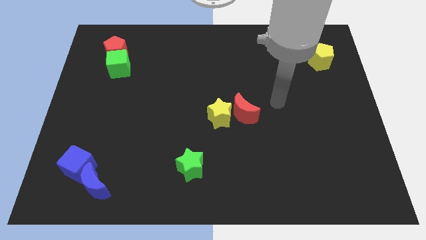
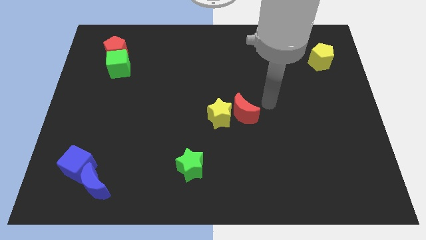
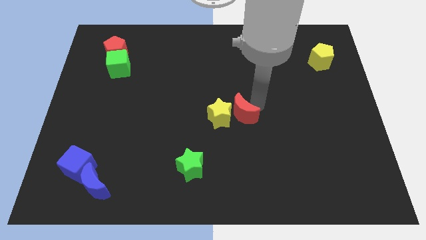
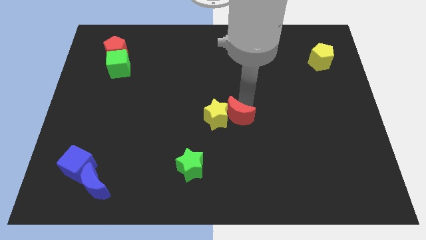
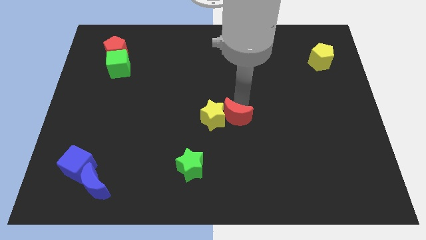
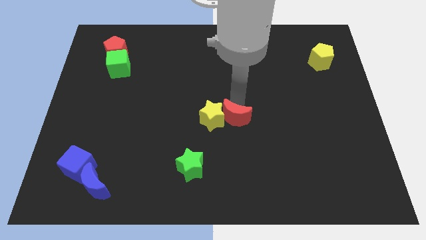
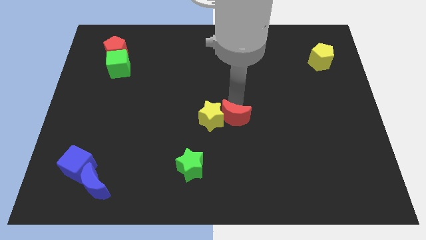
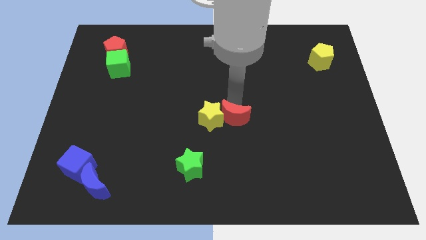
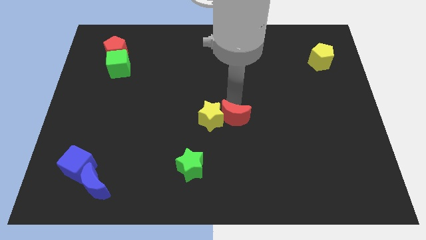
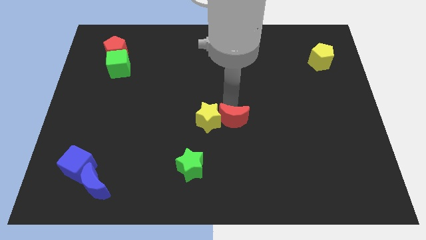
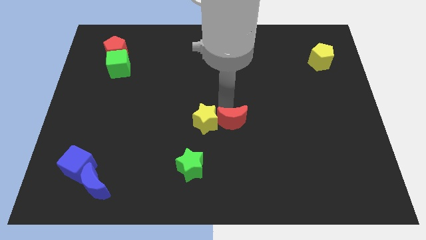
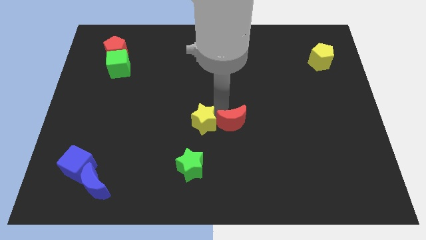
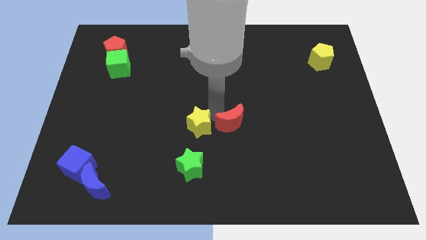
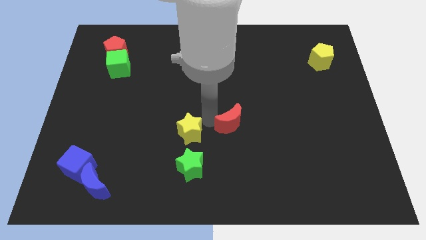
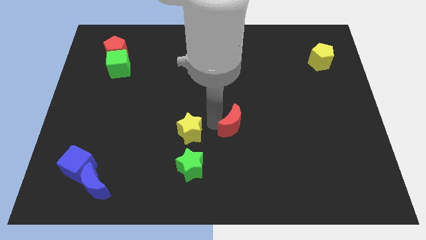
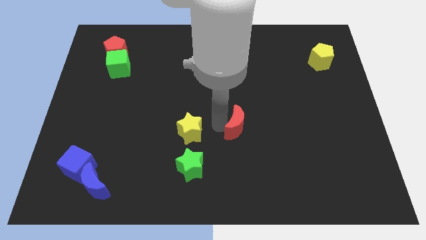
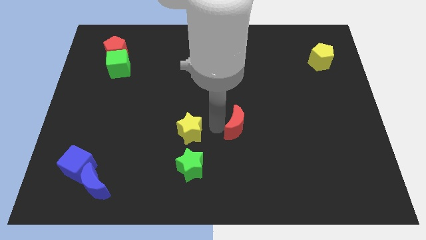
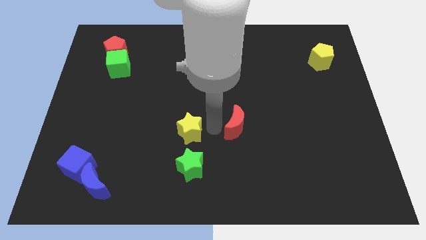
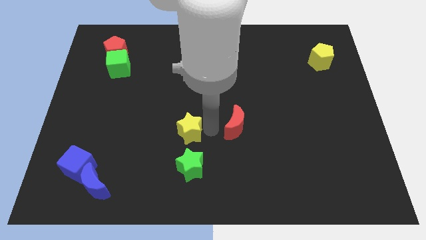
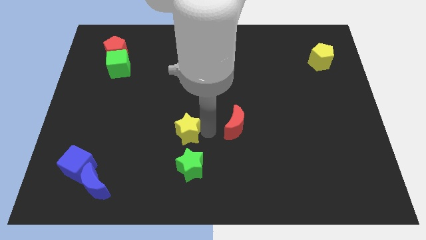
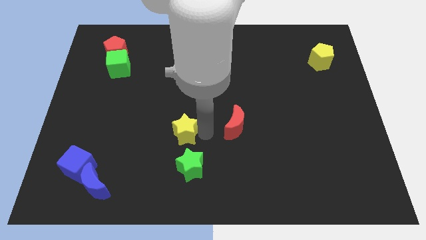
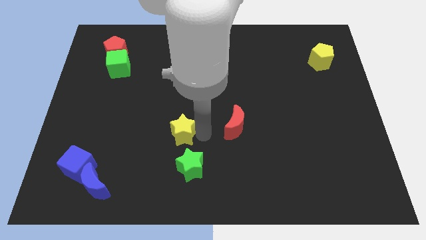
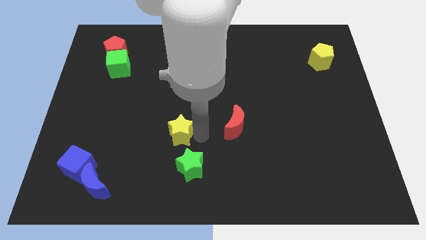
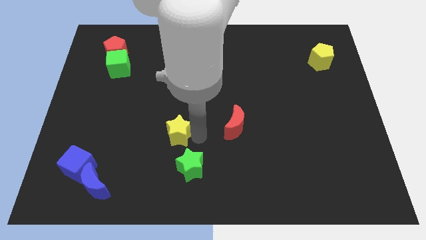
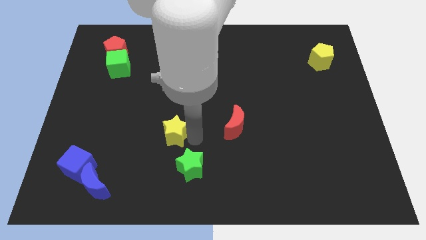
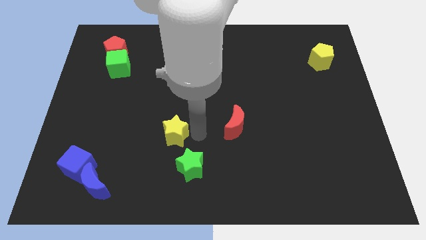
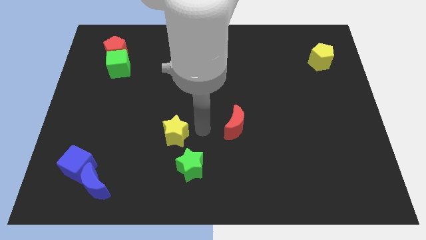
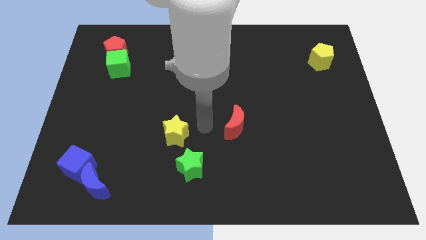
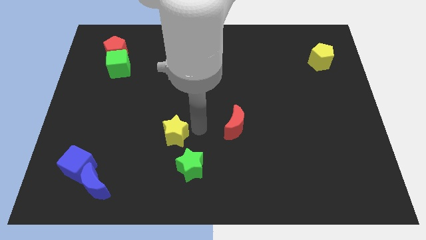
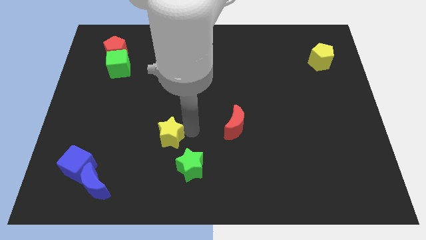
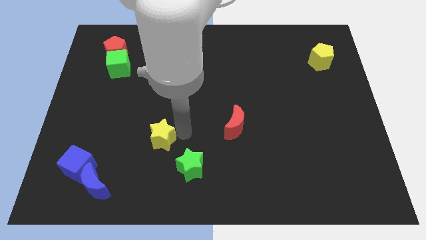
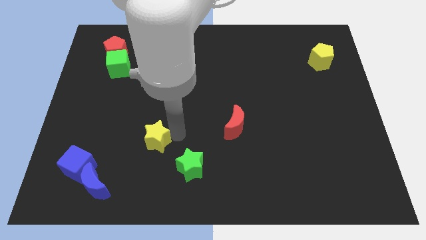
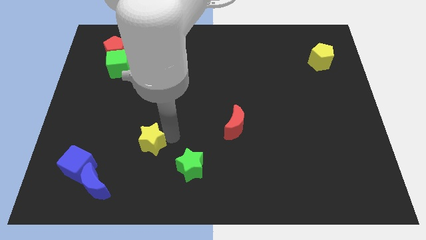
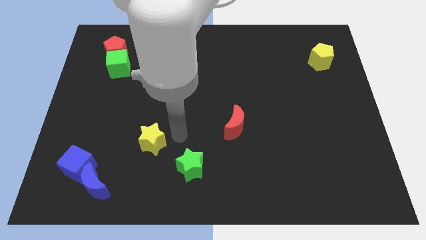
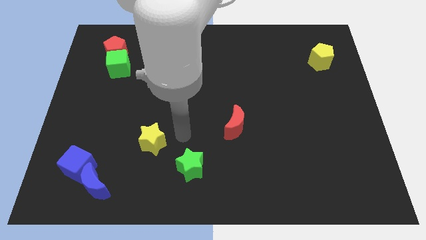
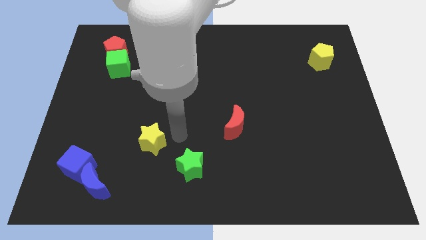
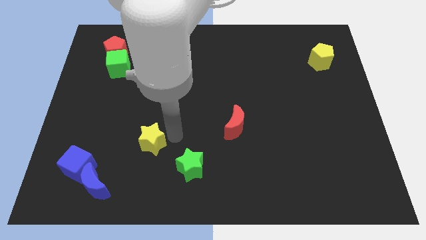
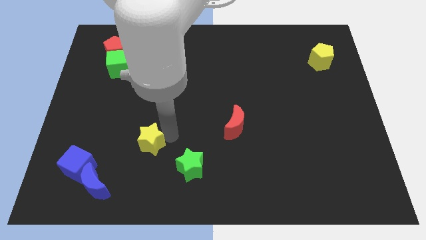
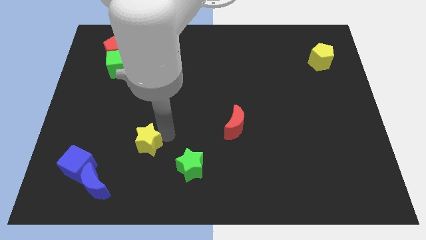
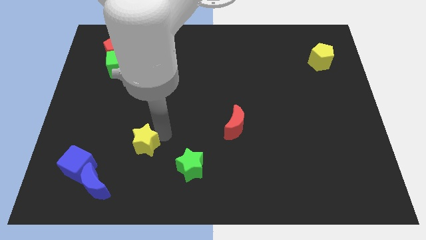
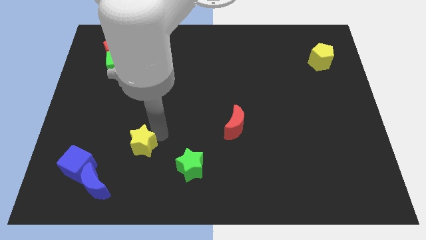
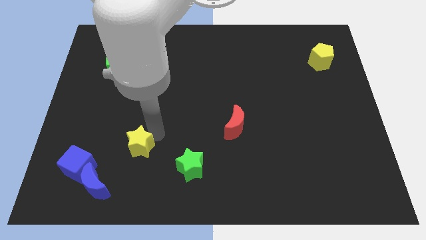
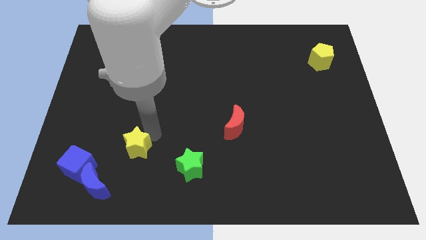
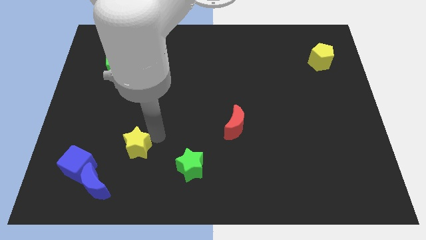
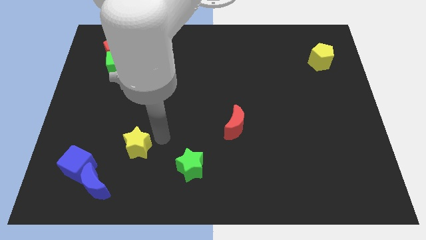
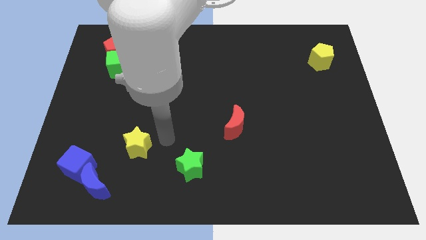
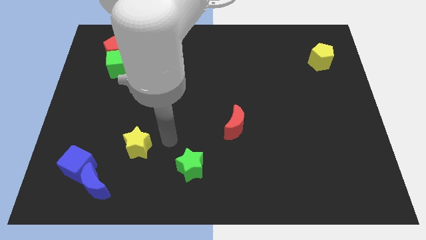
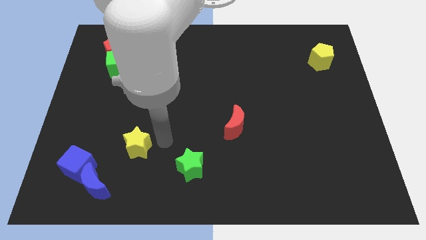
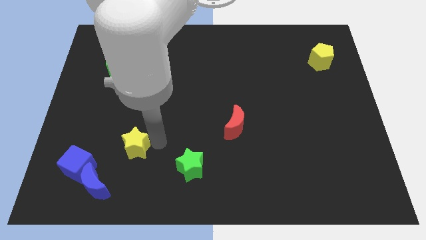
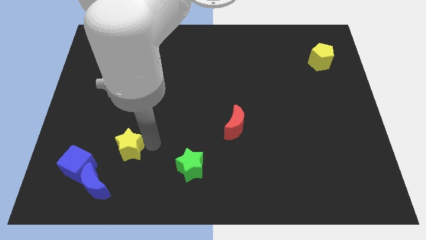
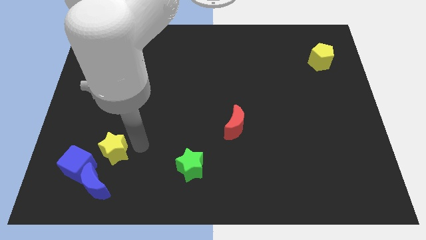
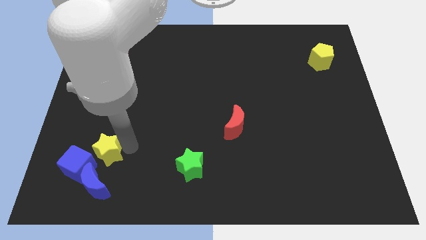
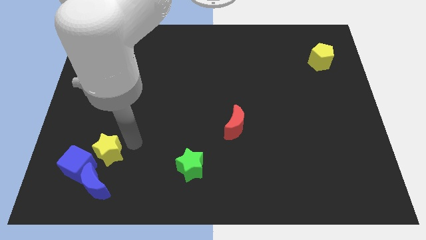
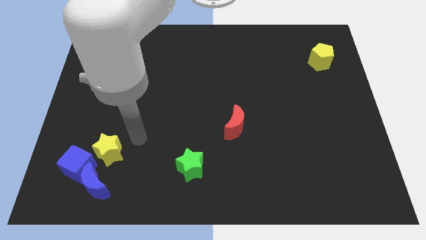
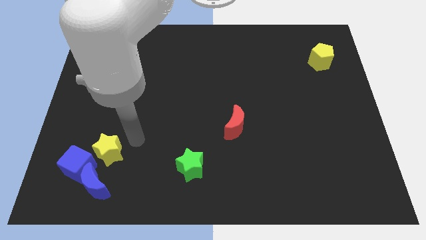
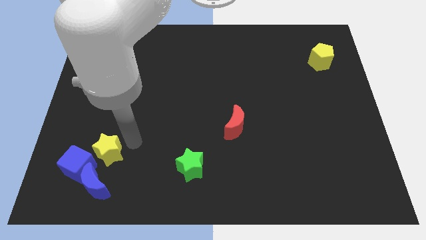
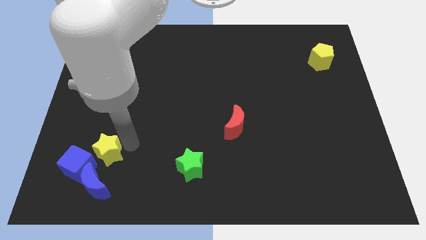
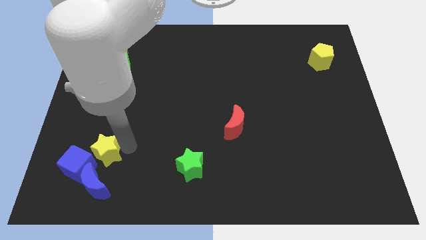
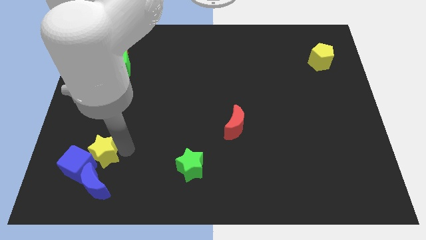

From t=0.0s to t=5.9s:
move the yellow star next to the blue cube

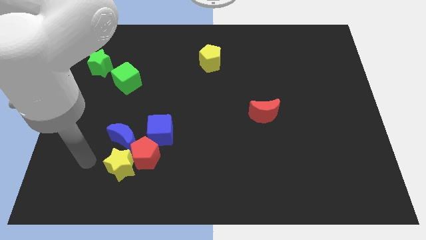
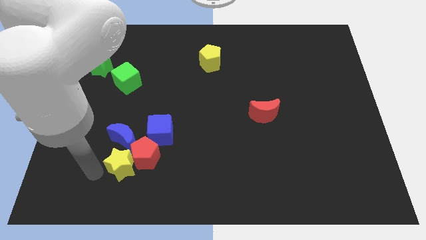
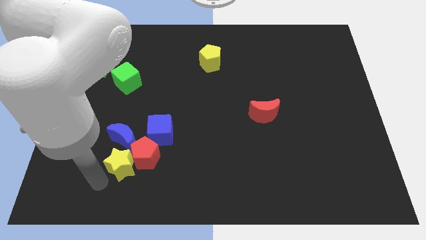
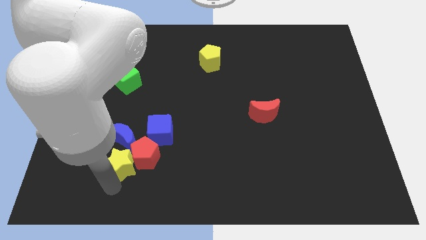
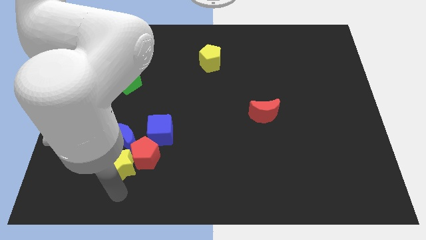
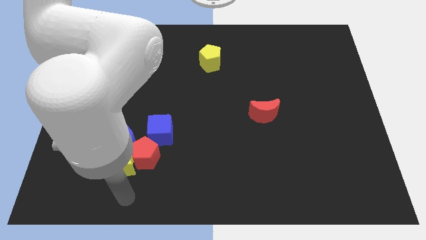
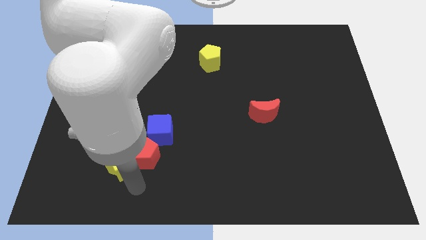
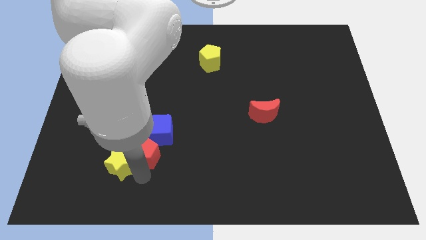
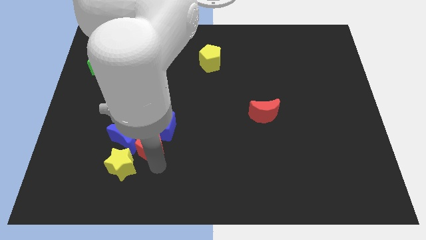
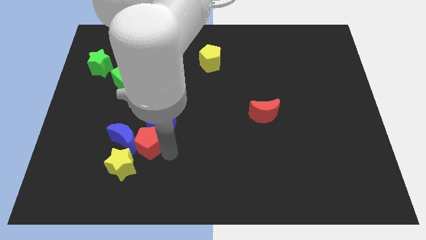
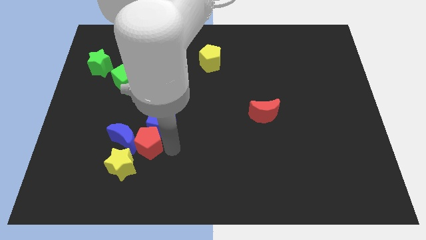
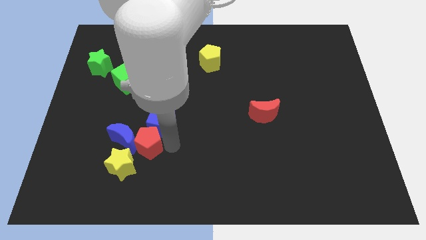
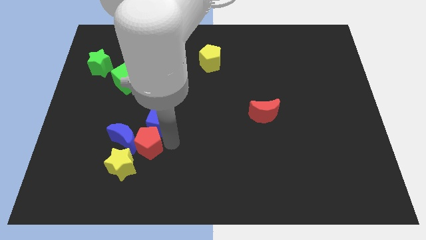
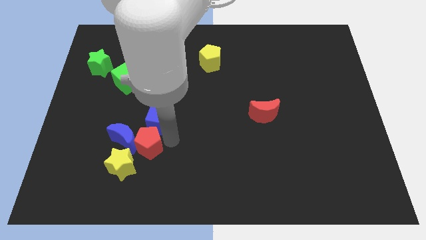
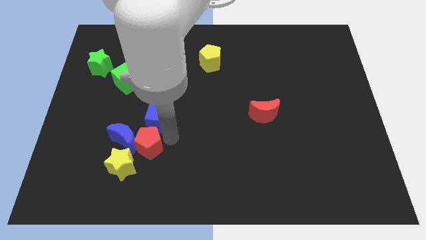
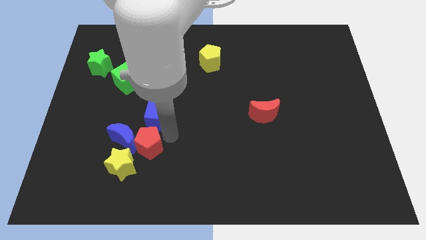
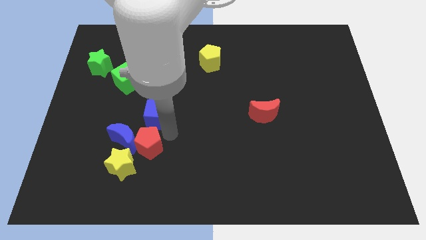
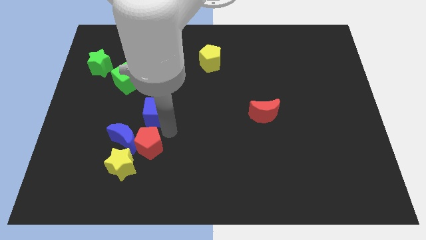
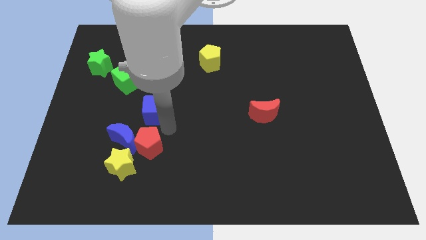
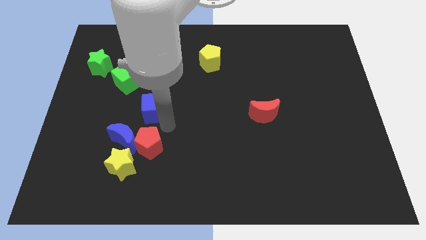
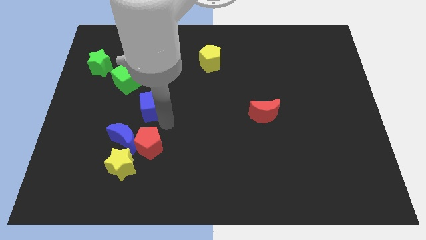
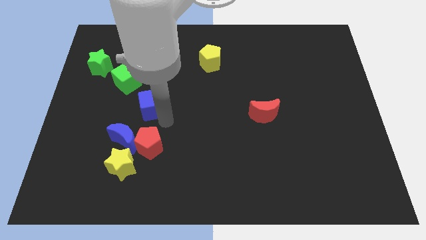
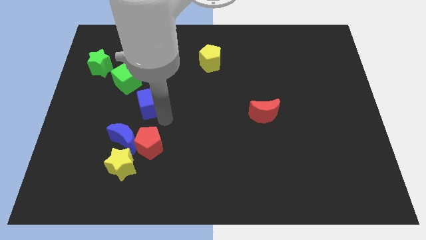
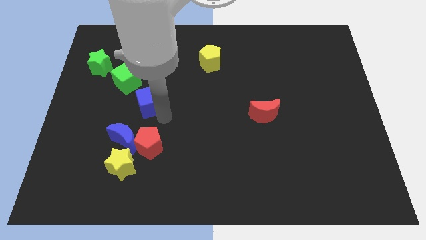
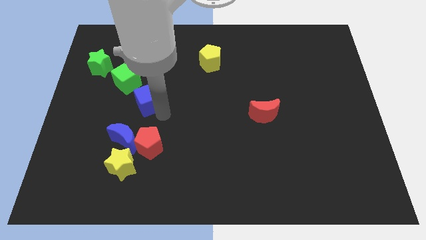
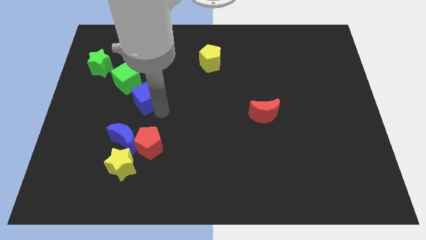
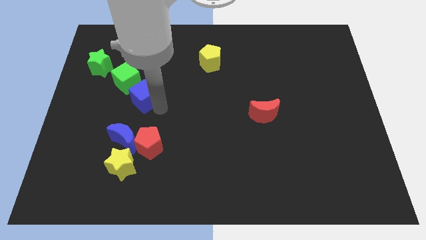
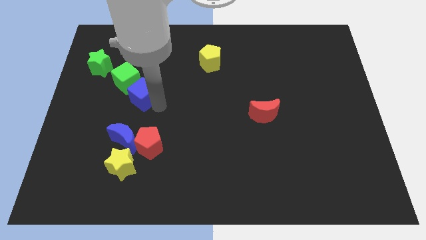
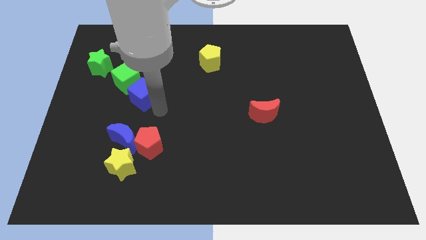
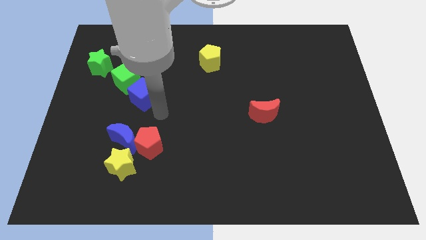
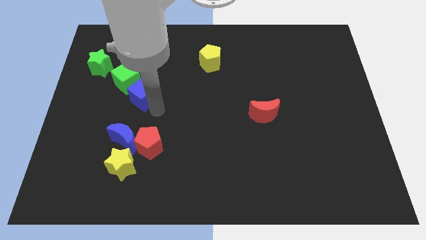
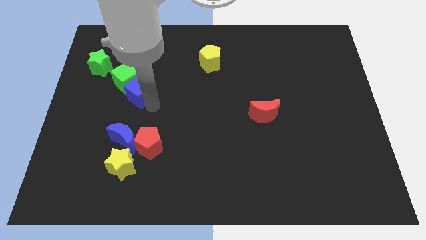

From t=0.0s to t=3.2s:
move the blue cube to the green cube
